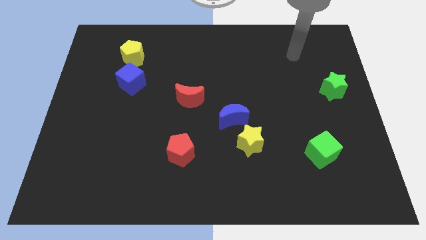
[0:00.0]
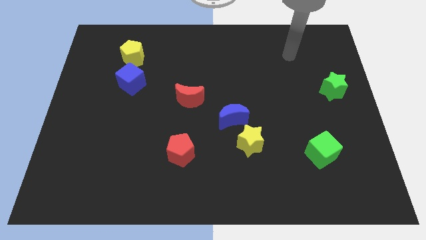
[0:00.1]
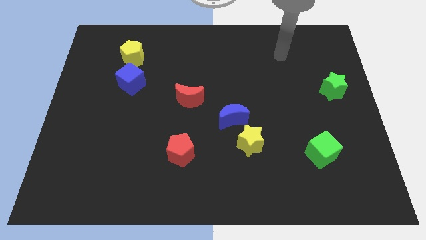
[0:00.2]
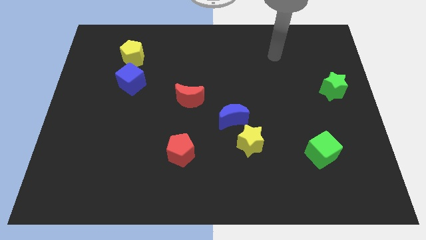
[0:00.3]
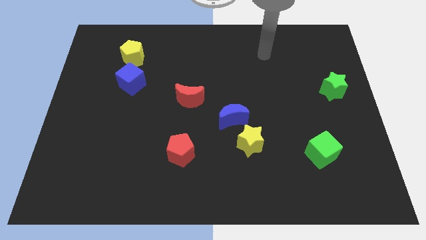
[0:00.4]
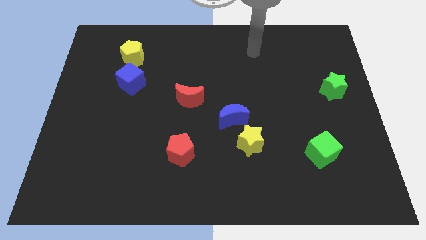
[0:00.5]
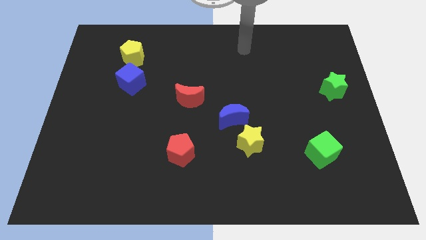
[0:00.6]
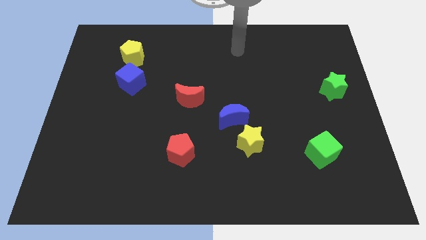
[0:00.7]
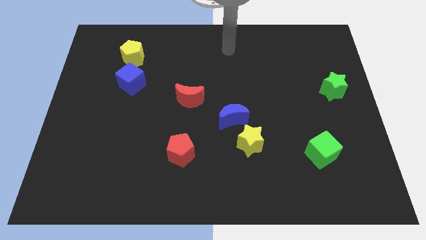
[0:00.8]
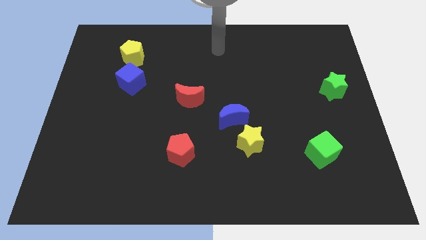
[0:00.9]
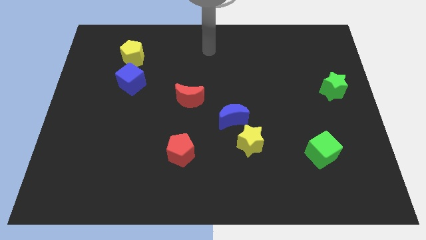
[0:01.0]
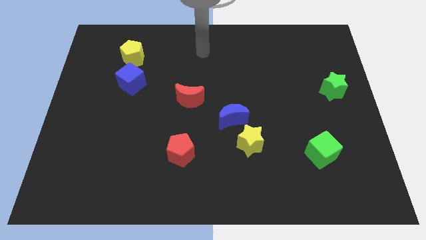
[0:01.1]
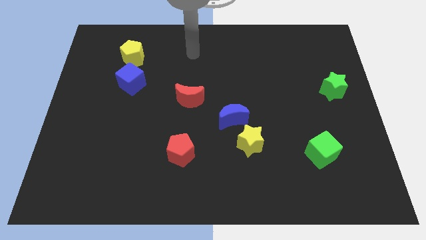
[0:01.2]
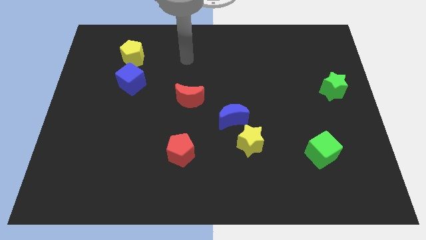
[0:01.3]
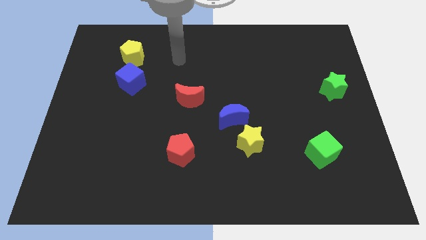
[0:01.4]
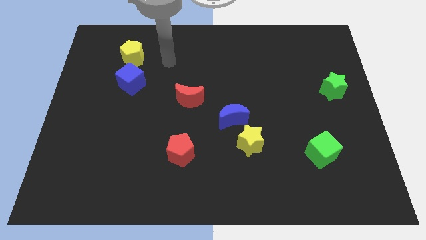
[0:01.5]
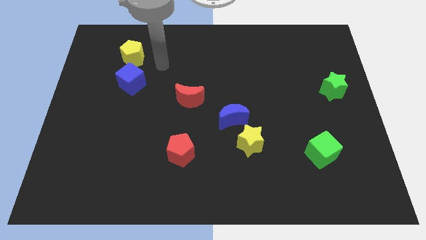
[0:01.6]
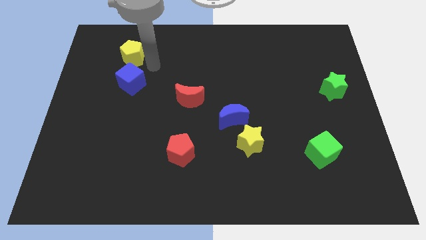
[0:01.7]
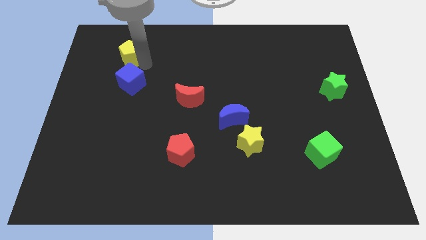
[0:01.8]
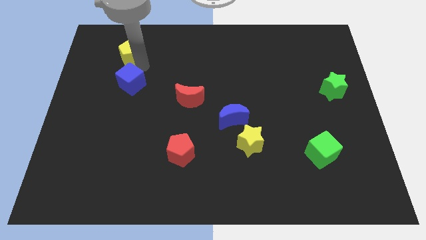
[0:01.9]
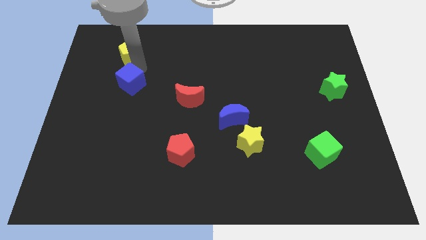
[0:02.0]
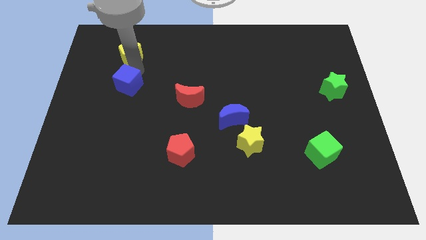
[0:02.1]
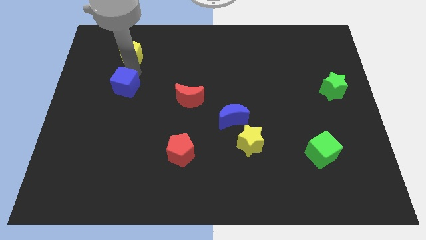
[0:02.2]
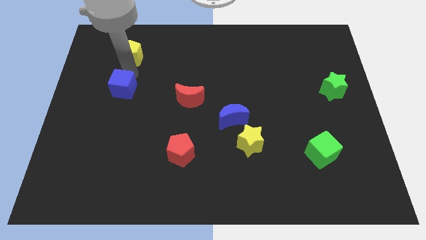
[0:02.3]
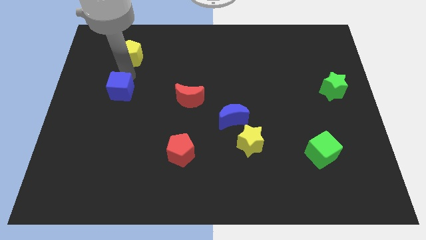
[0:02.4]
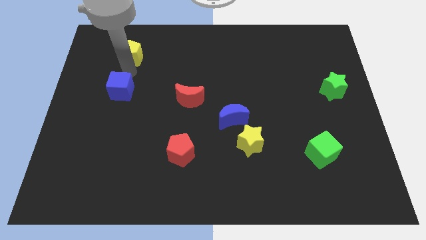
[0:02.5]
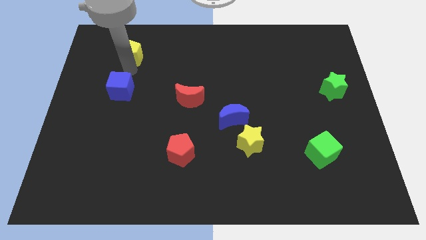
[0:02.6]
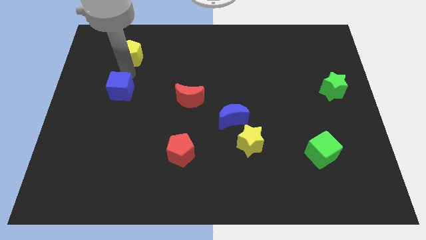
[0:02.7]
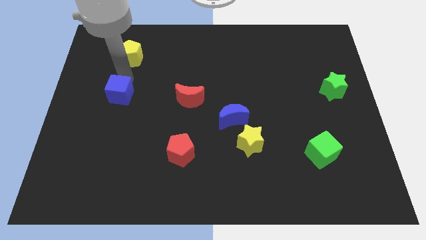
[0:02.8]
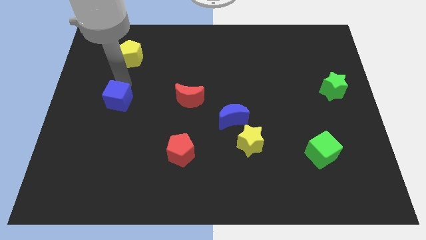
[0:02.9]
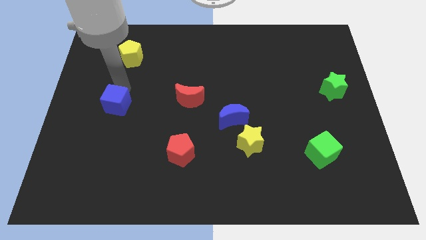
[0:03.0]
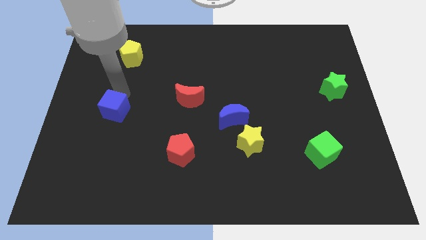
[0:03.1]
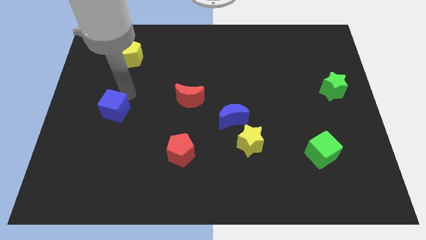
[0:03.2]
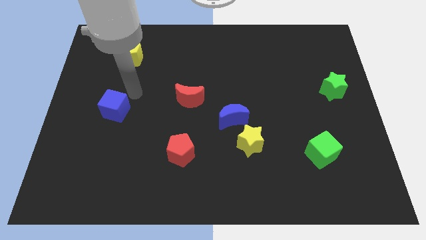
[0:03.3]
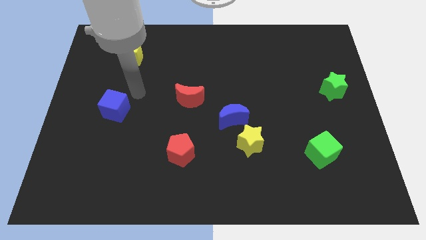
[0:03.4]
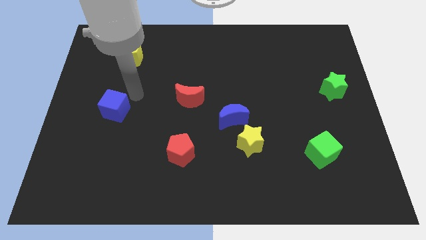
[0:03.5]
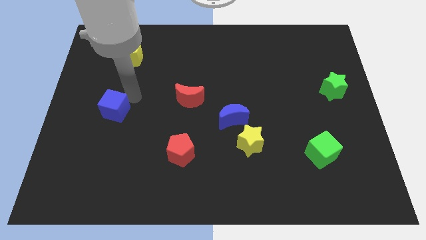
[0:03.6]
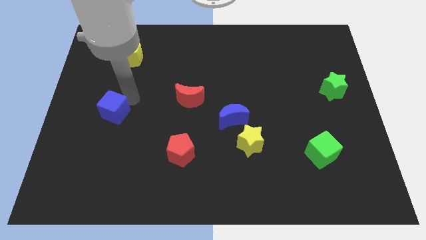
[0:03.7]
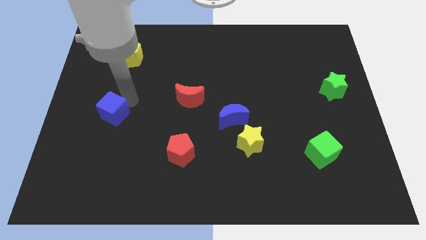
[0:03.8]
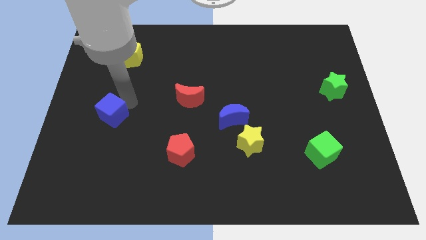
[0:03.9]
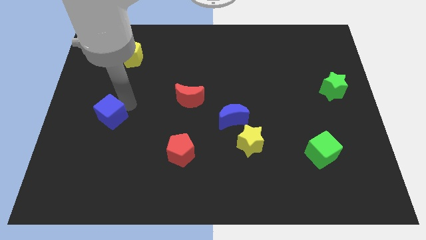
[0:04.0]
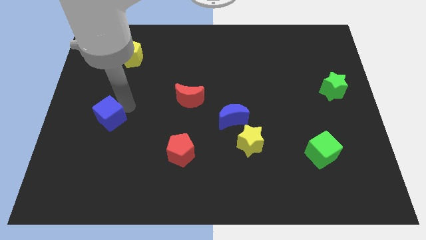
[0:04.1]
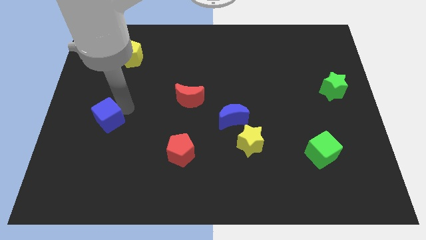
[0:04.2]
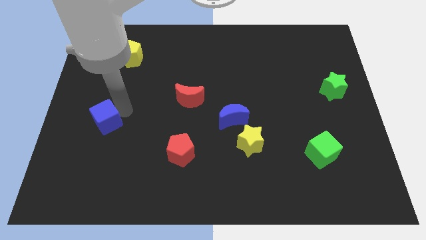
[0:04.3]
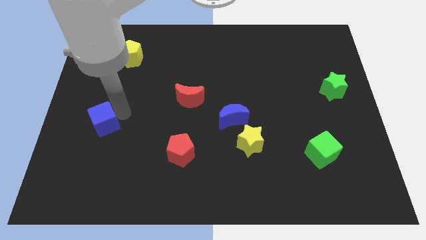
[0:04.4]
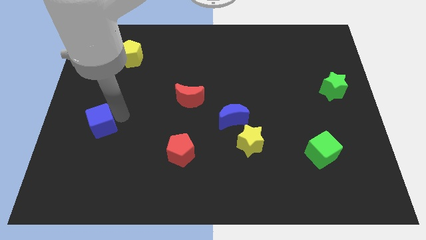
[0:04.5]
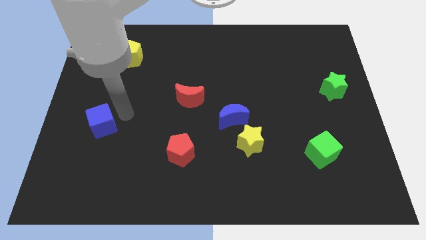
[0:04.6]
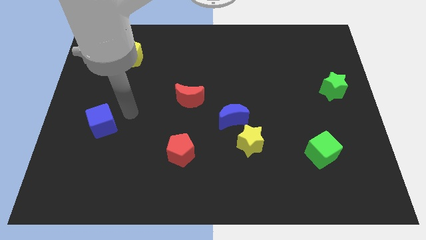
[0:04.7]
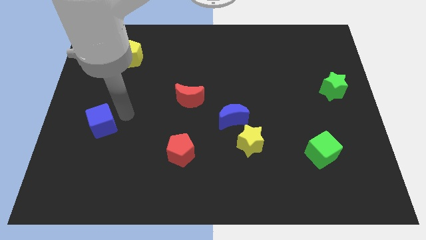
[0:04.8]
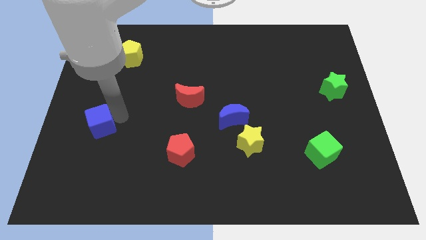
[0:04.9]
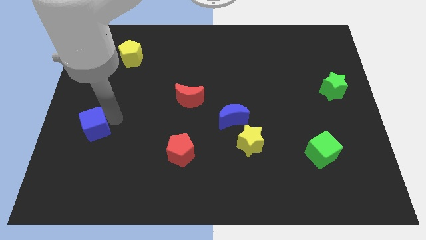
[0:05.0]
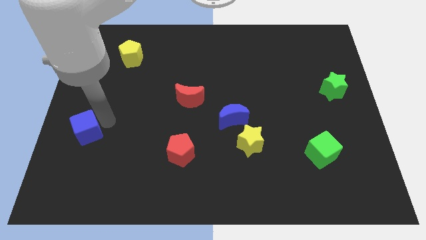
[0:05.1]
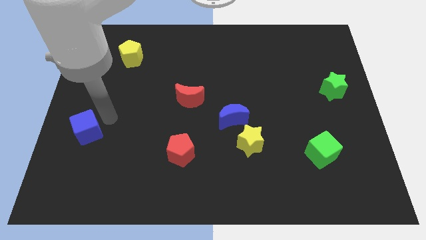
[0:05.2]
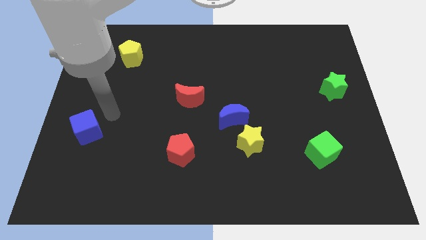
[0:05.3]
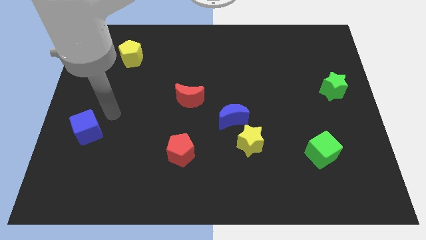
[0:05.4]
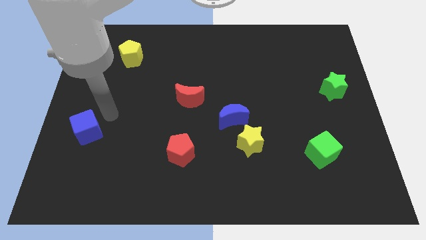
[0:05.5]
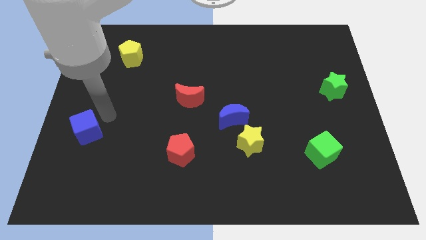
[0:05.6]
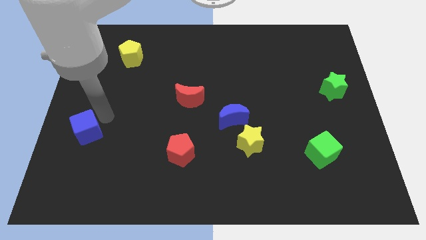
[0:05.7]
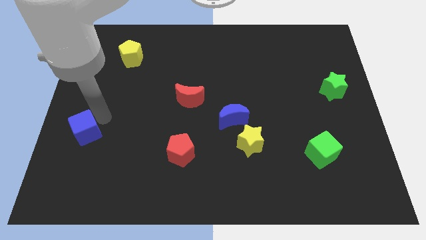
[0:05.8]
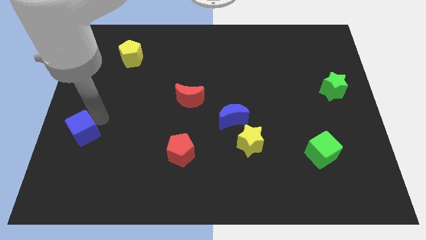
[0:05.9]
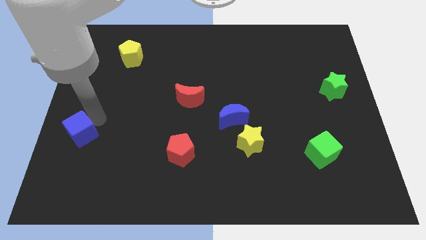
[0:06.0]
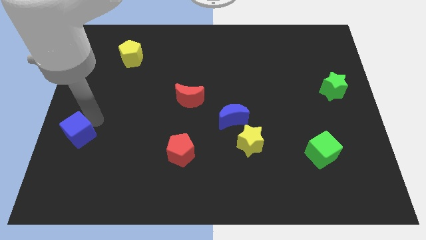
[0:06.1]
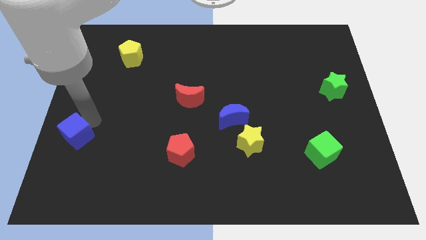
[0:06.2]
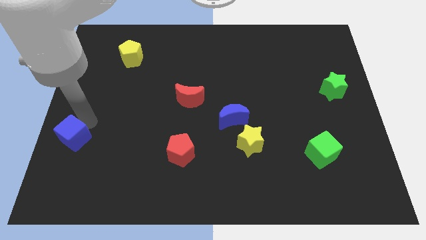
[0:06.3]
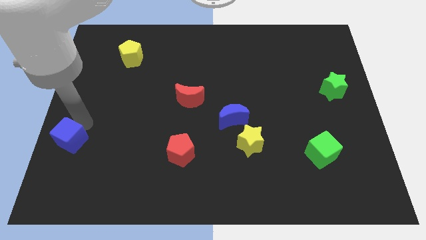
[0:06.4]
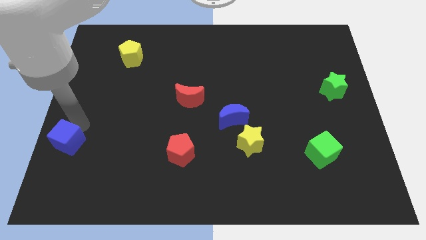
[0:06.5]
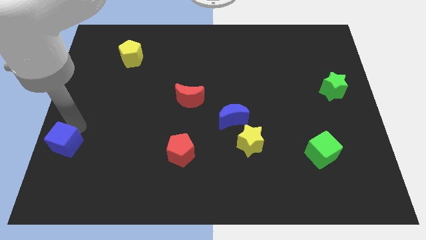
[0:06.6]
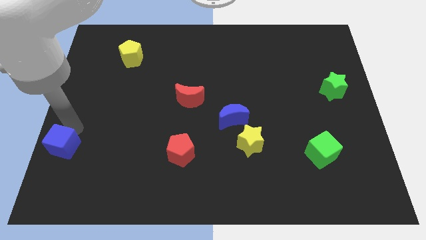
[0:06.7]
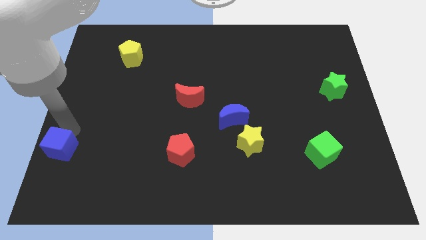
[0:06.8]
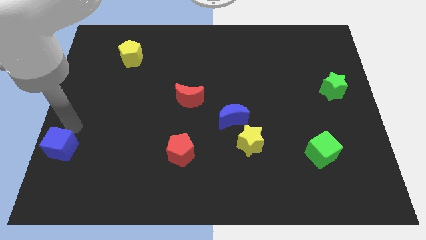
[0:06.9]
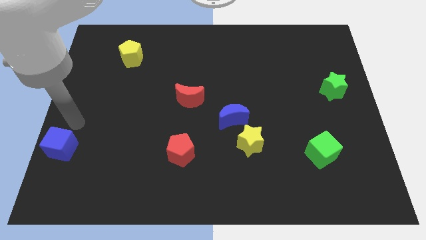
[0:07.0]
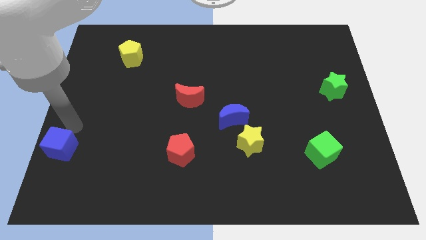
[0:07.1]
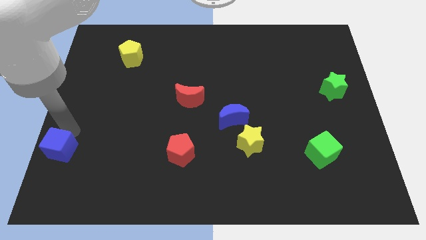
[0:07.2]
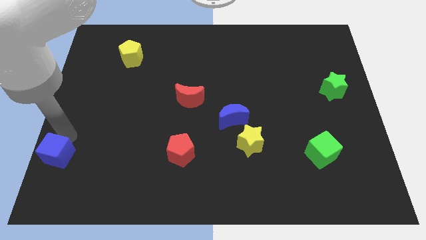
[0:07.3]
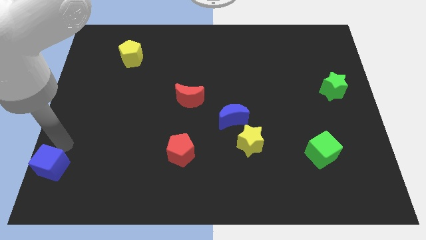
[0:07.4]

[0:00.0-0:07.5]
slide the blue cube to the lower left corner
